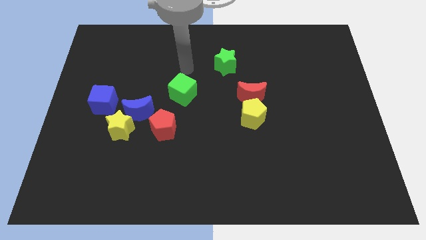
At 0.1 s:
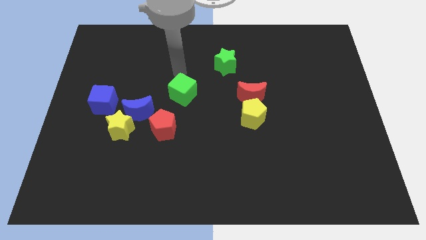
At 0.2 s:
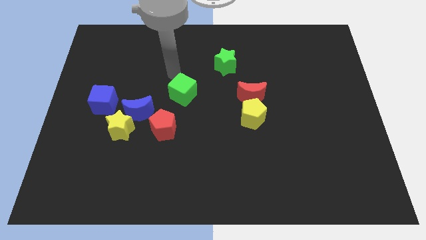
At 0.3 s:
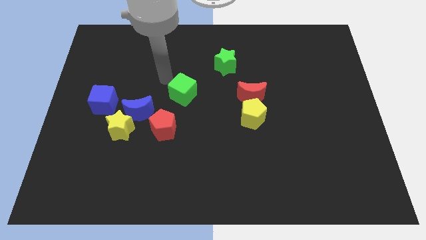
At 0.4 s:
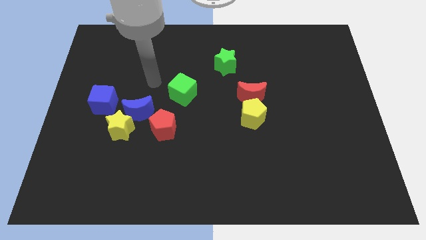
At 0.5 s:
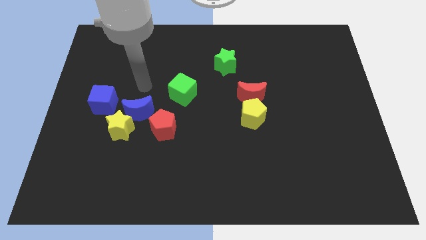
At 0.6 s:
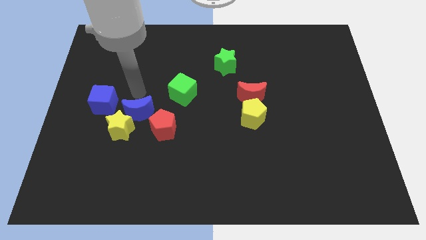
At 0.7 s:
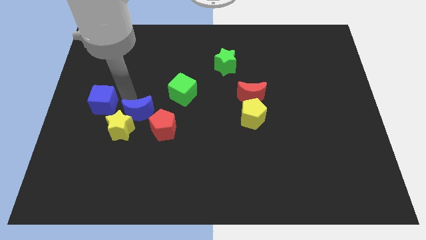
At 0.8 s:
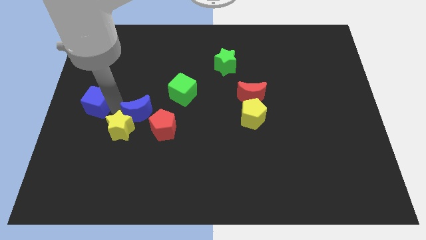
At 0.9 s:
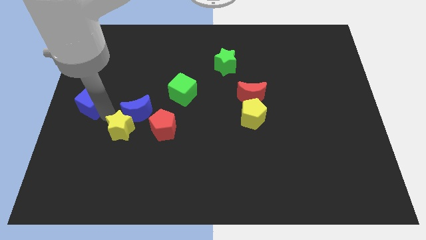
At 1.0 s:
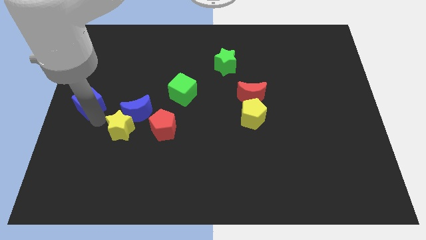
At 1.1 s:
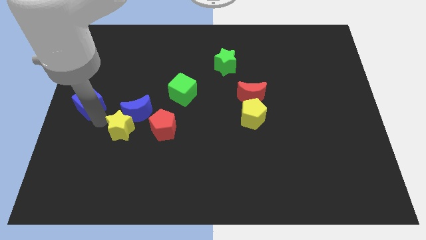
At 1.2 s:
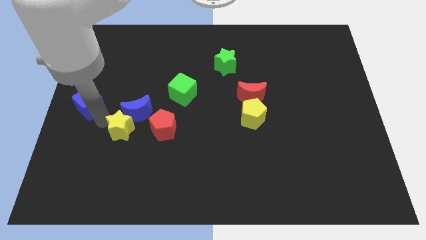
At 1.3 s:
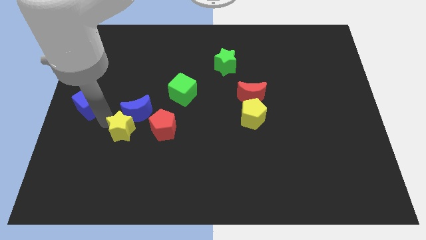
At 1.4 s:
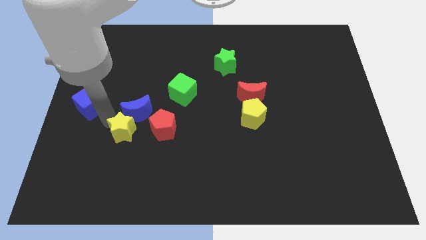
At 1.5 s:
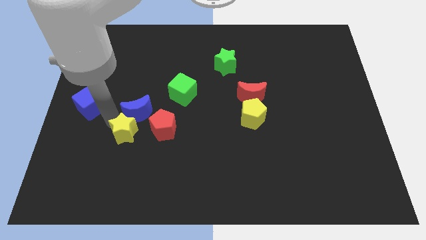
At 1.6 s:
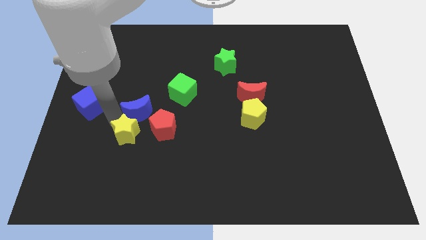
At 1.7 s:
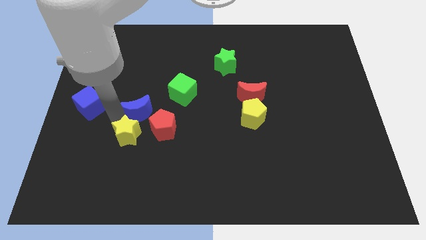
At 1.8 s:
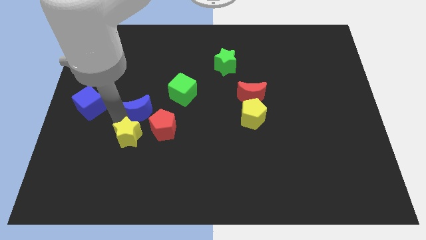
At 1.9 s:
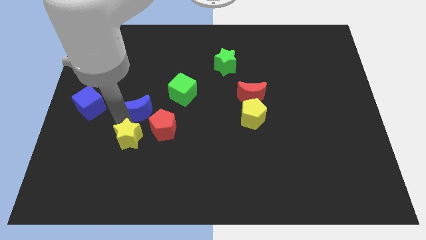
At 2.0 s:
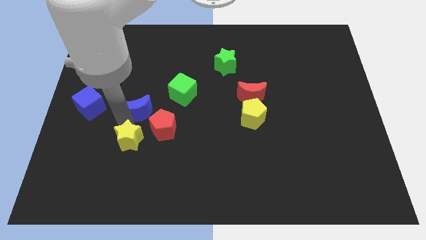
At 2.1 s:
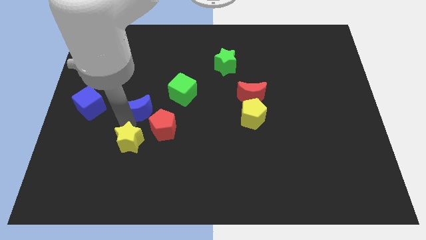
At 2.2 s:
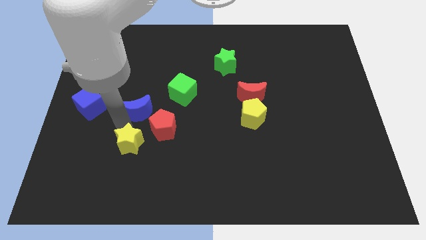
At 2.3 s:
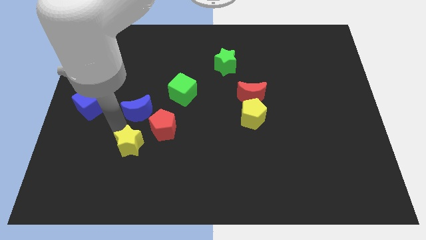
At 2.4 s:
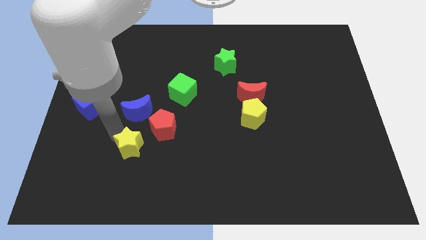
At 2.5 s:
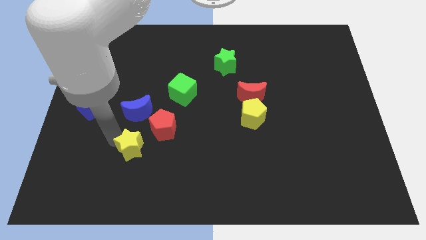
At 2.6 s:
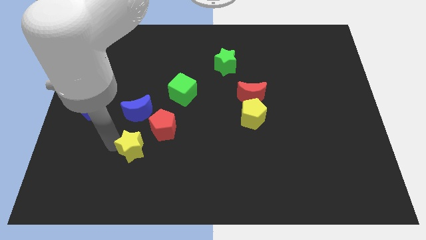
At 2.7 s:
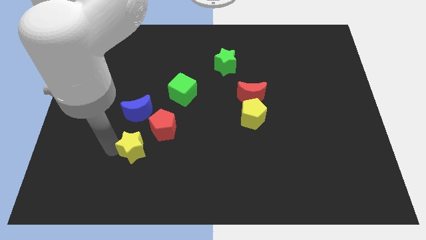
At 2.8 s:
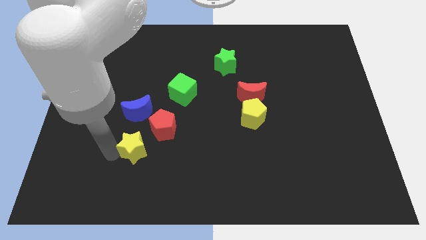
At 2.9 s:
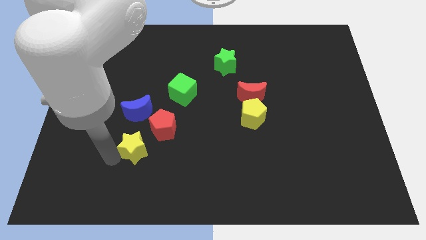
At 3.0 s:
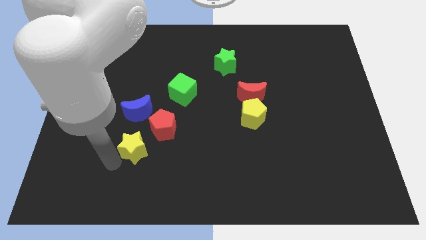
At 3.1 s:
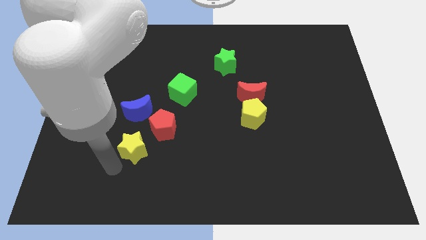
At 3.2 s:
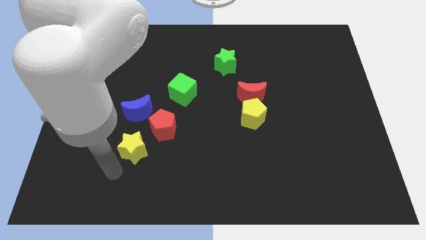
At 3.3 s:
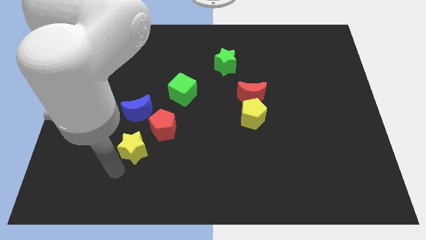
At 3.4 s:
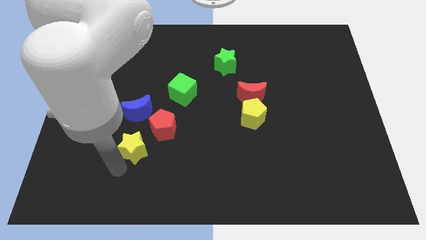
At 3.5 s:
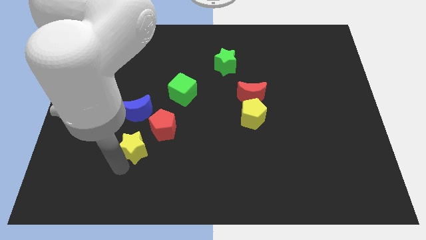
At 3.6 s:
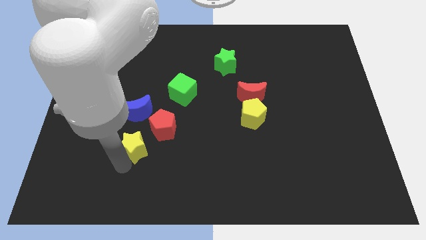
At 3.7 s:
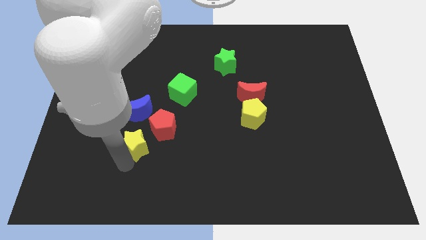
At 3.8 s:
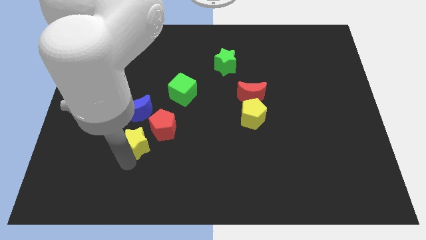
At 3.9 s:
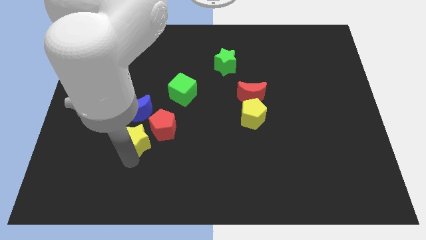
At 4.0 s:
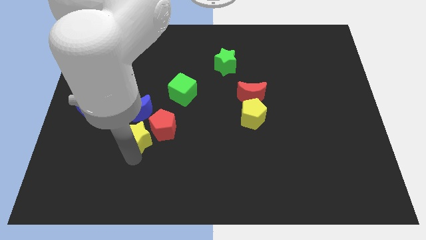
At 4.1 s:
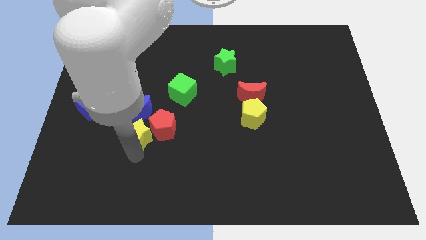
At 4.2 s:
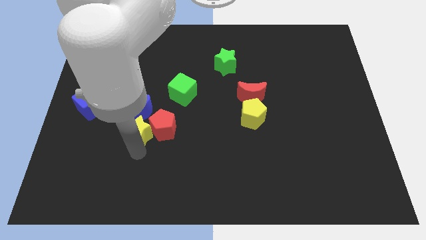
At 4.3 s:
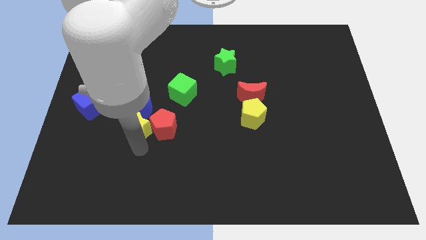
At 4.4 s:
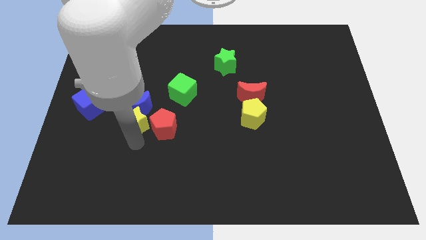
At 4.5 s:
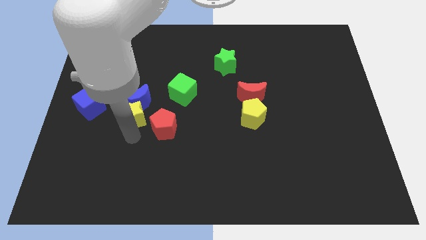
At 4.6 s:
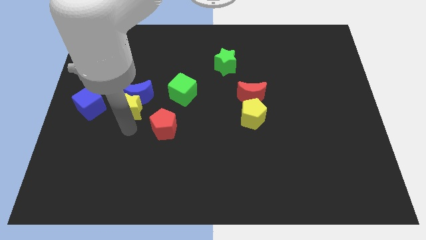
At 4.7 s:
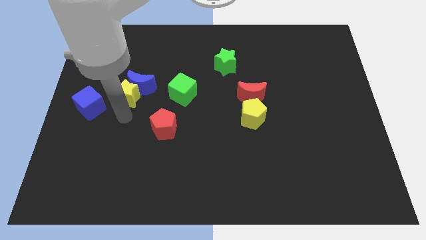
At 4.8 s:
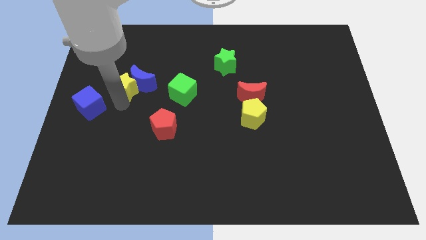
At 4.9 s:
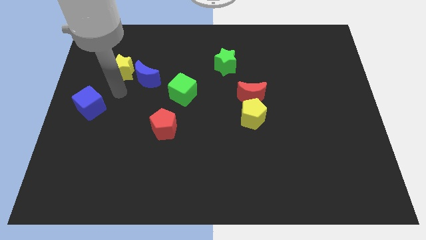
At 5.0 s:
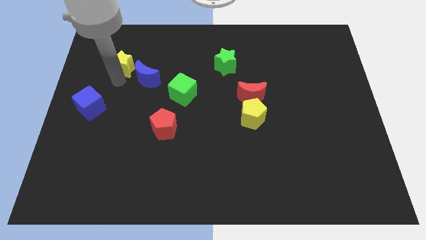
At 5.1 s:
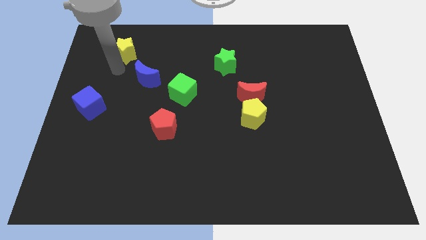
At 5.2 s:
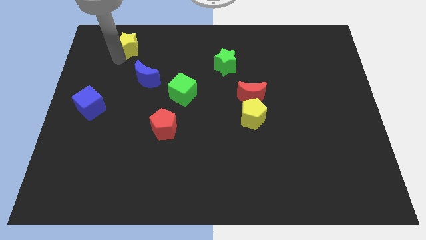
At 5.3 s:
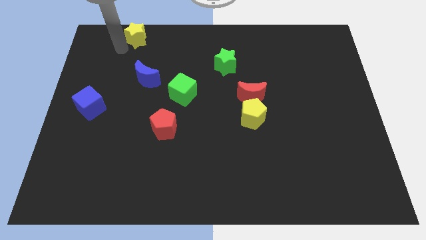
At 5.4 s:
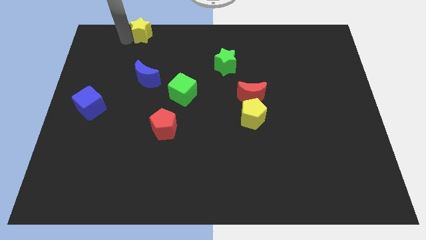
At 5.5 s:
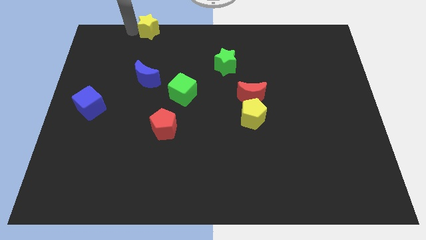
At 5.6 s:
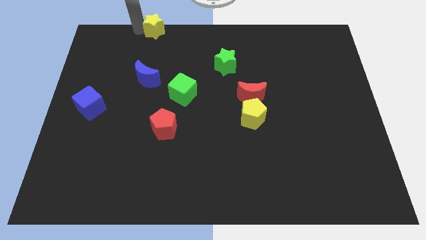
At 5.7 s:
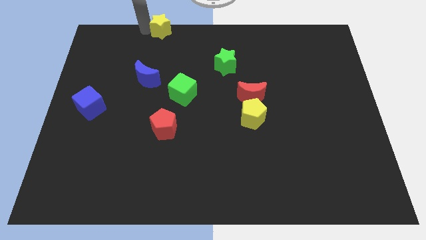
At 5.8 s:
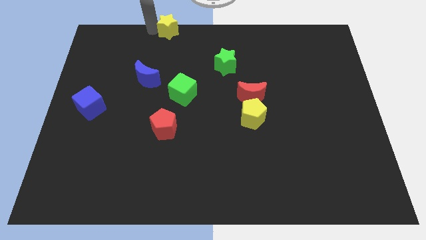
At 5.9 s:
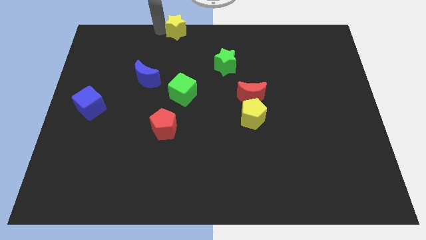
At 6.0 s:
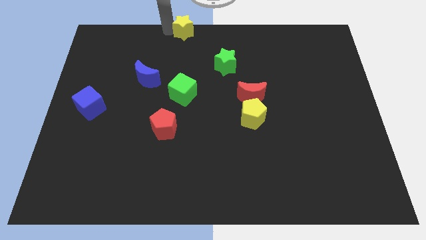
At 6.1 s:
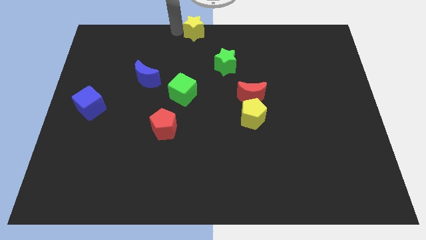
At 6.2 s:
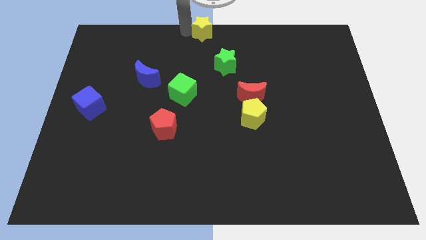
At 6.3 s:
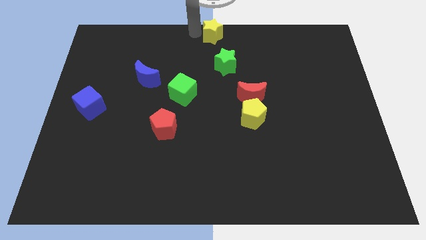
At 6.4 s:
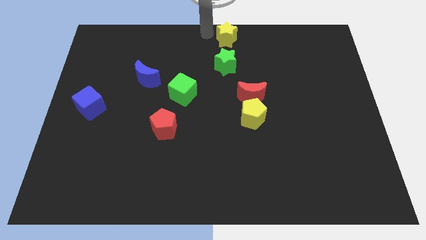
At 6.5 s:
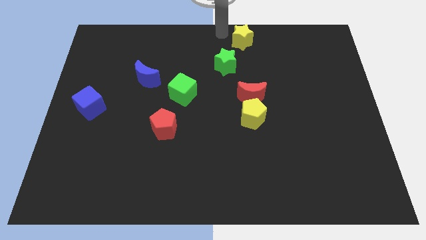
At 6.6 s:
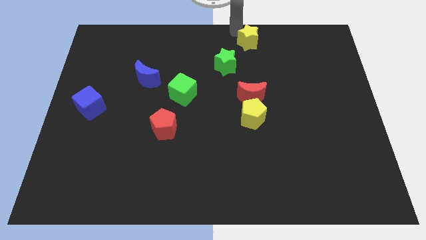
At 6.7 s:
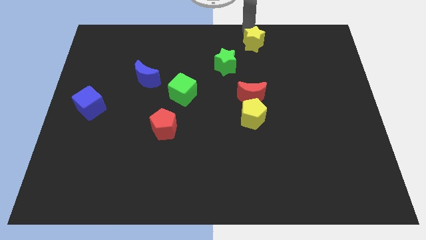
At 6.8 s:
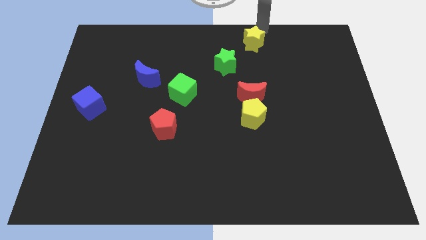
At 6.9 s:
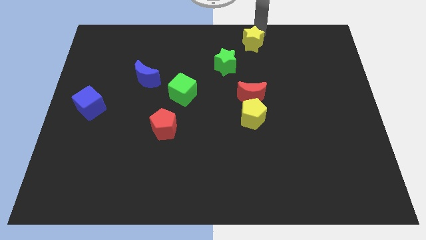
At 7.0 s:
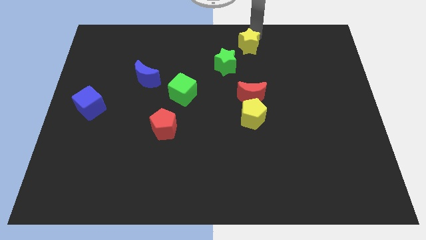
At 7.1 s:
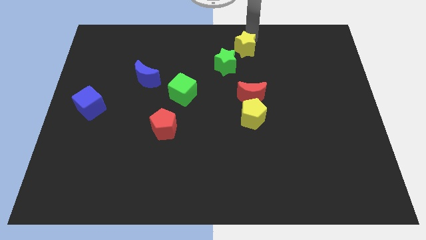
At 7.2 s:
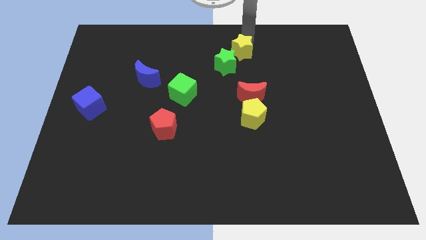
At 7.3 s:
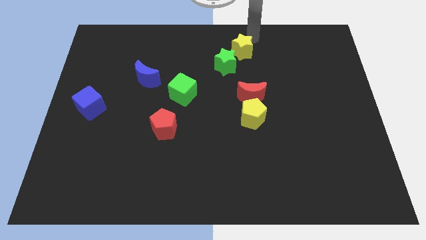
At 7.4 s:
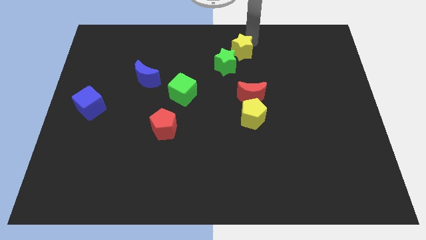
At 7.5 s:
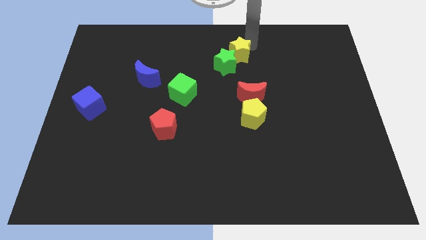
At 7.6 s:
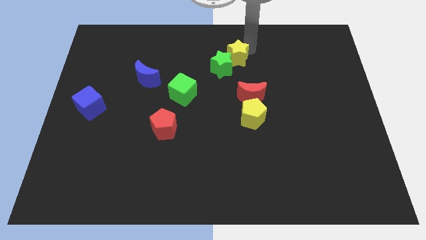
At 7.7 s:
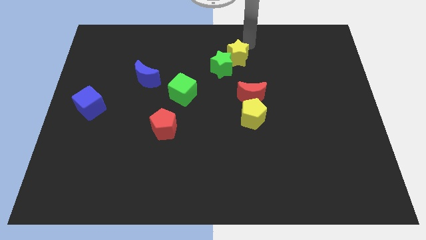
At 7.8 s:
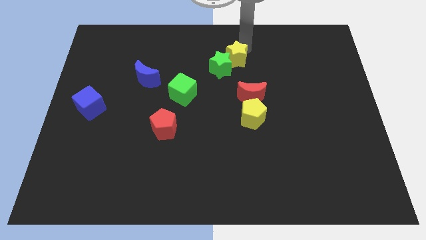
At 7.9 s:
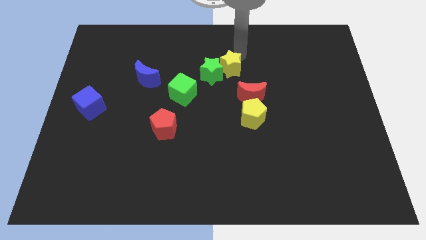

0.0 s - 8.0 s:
put the yellow star to the middle of the board
